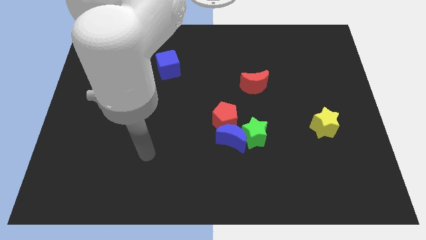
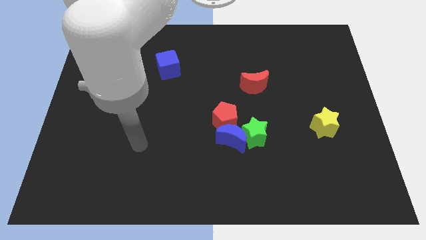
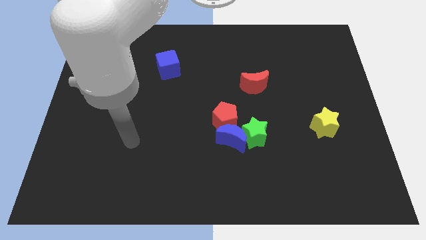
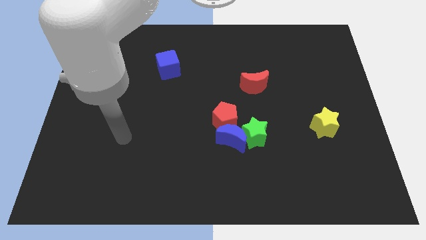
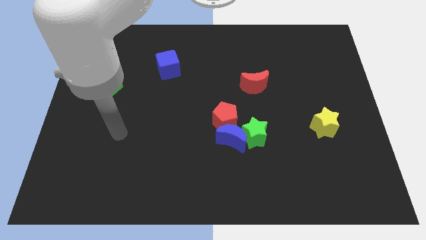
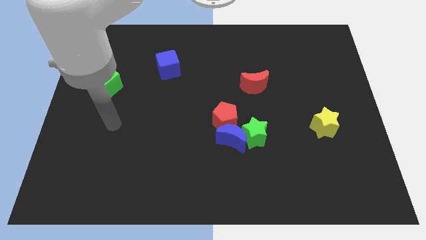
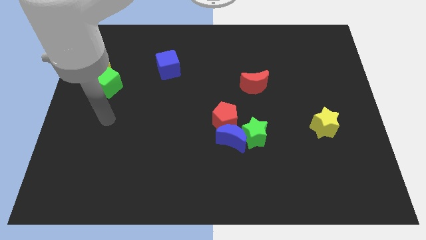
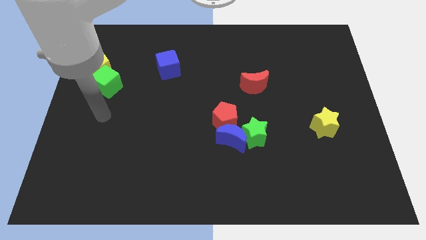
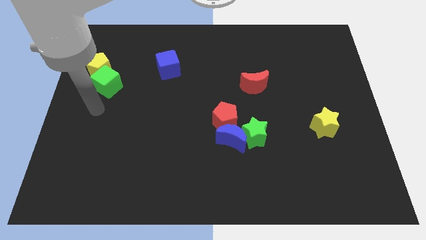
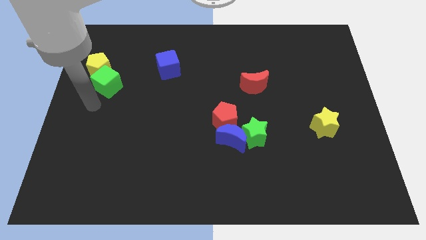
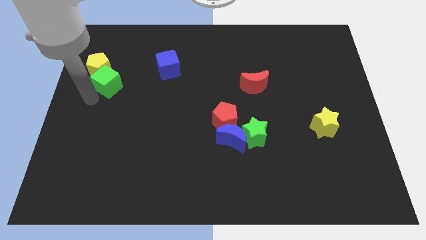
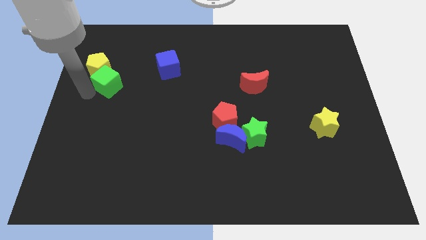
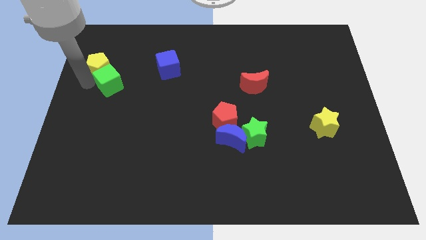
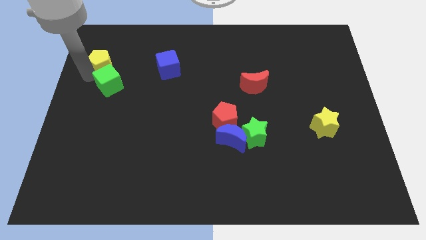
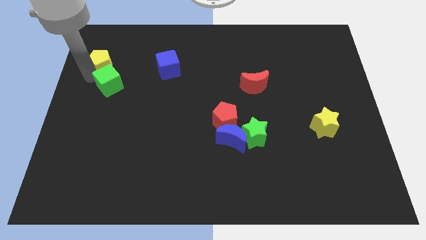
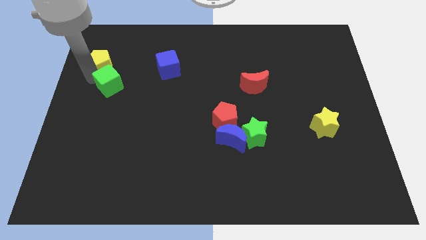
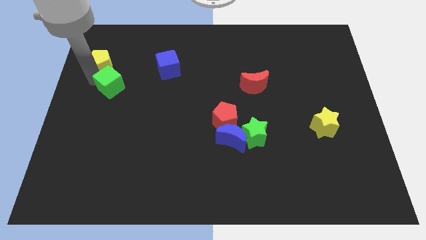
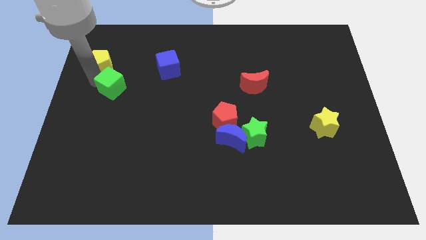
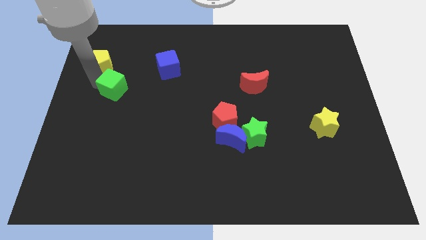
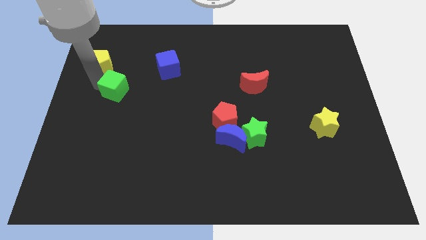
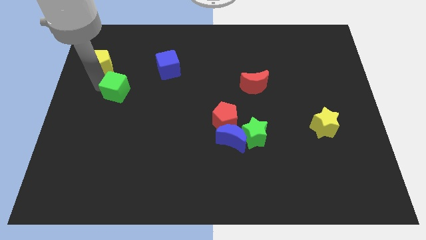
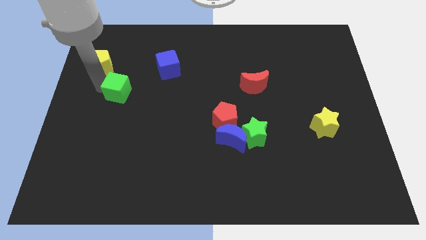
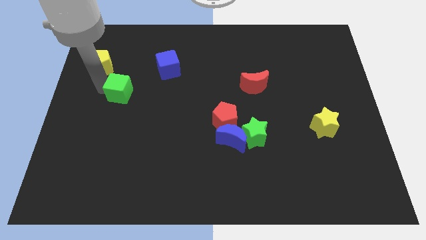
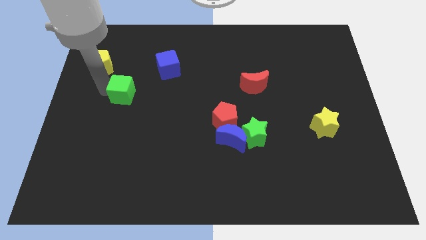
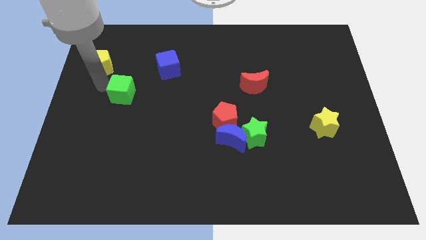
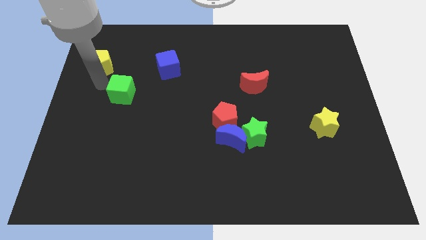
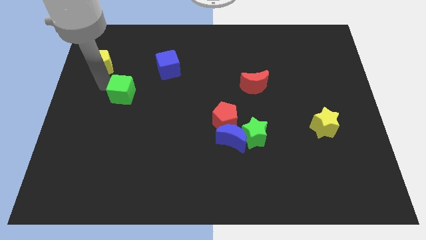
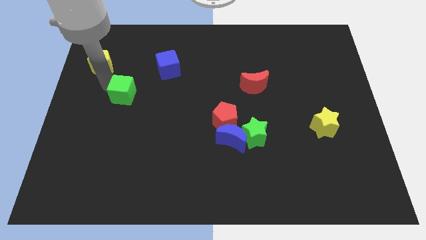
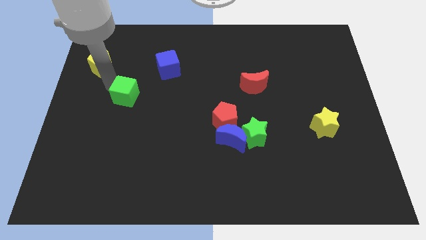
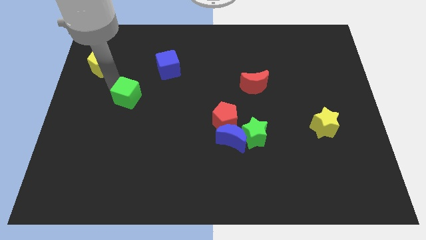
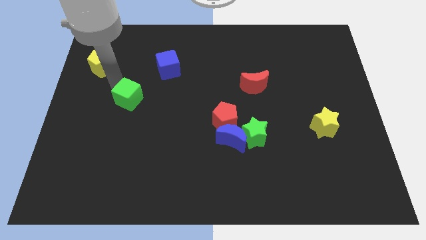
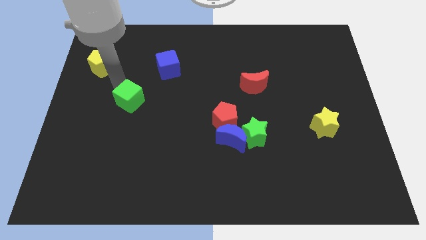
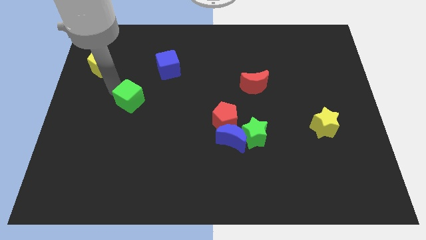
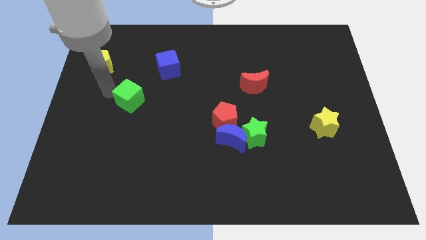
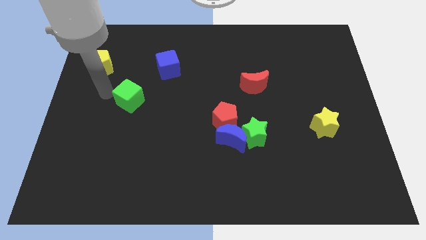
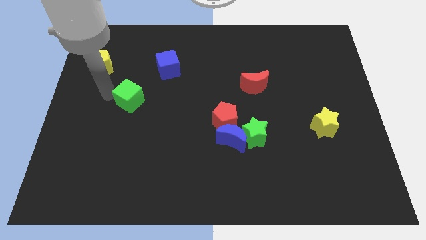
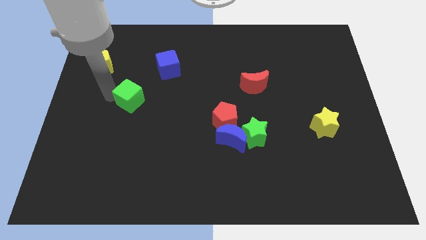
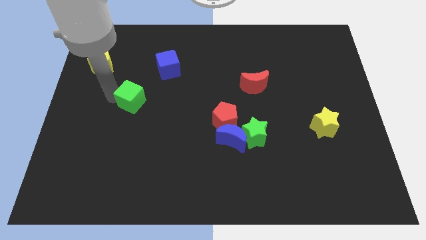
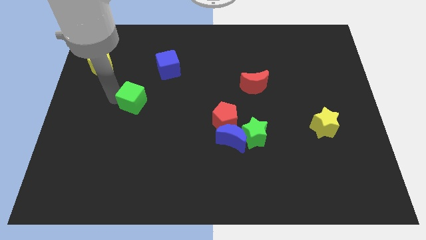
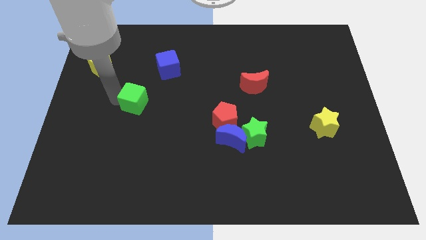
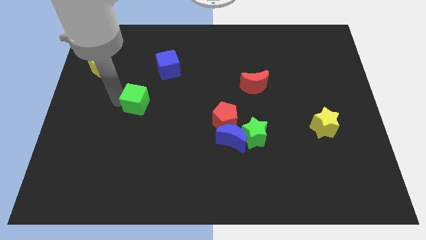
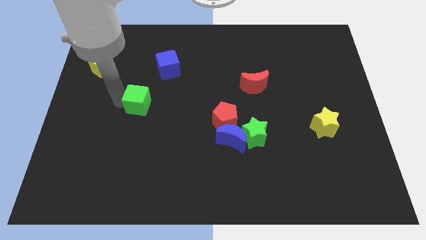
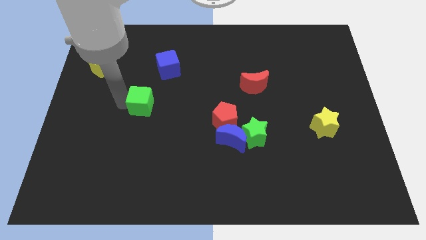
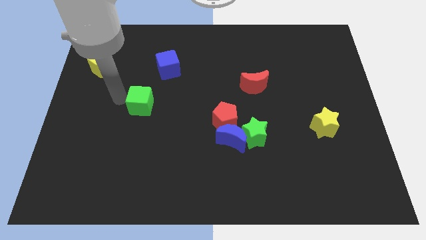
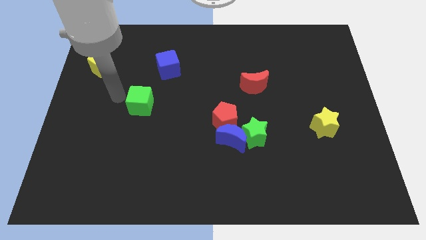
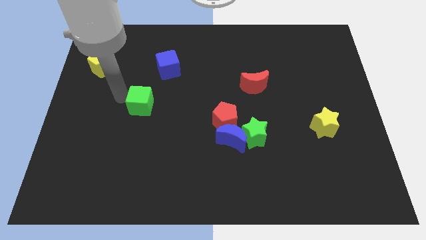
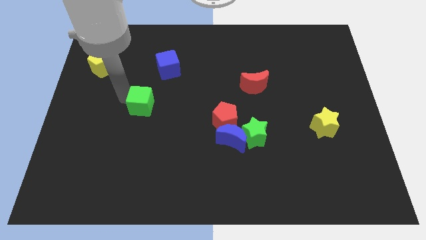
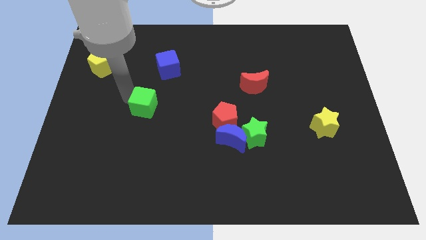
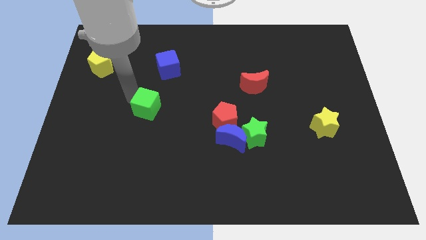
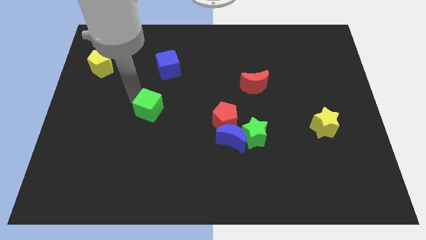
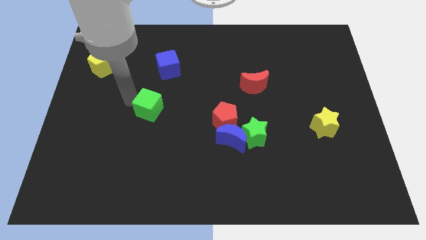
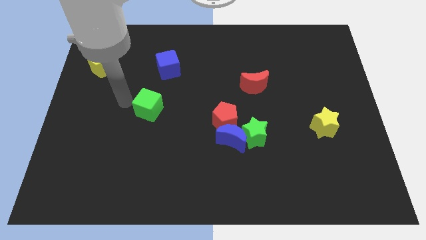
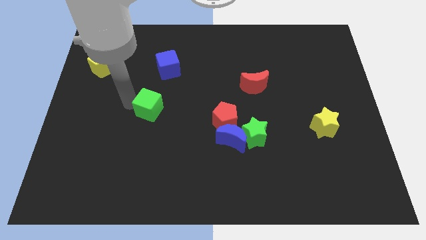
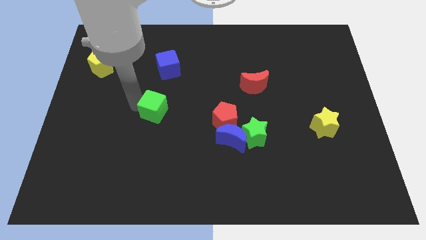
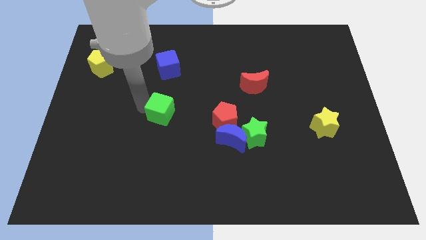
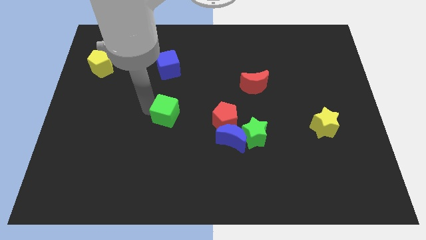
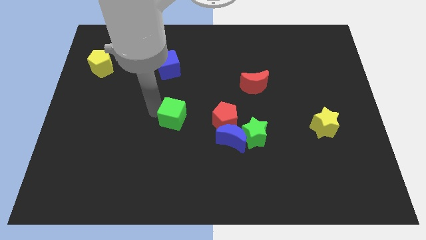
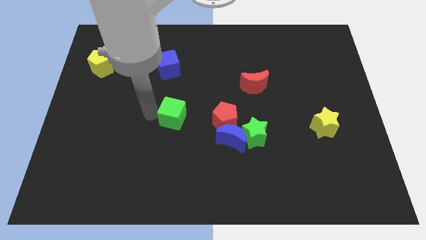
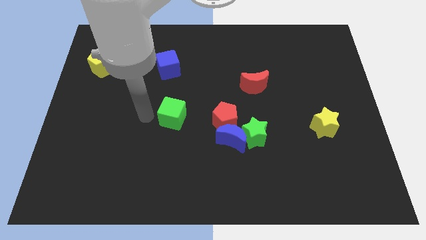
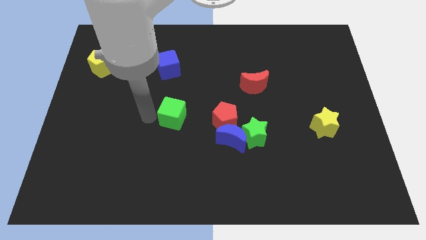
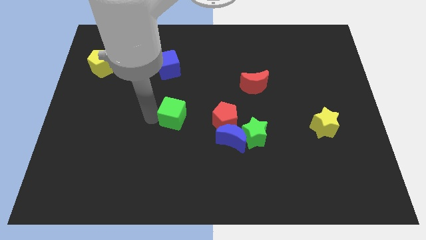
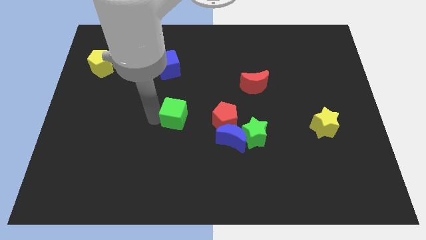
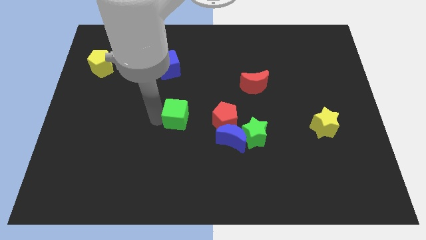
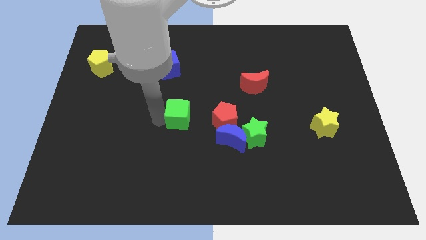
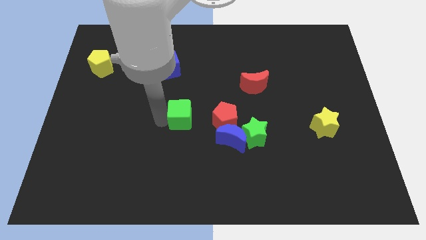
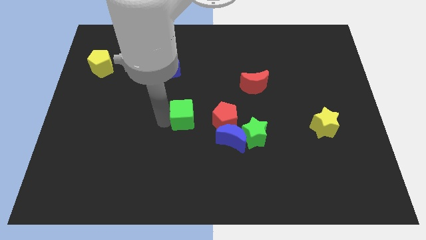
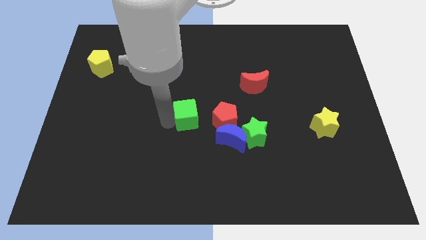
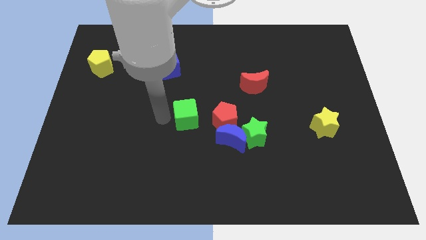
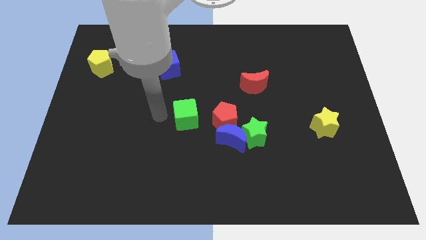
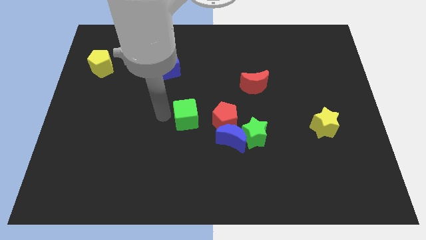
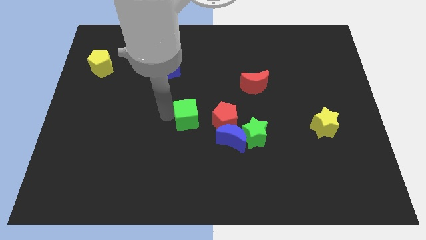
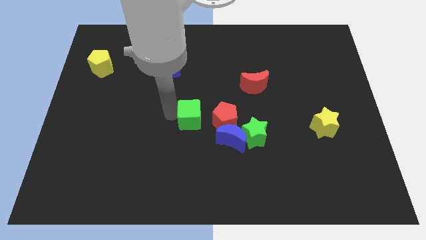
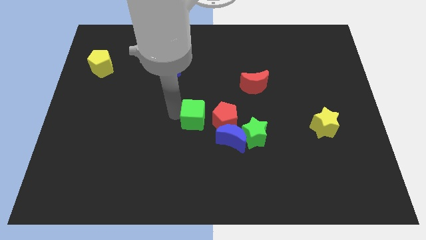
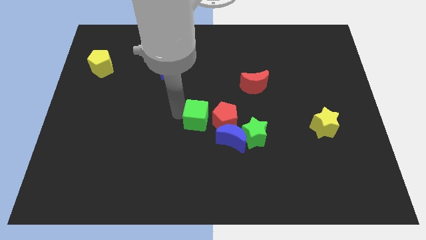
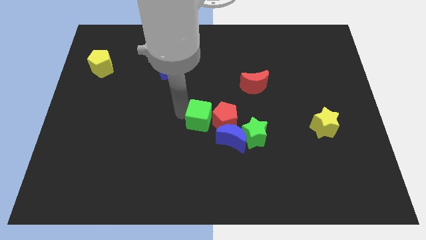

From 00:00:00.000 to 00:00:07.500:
slide the green cube towards the red pentagon
